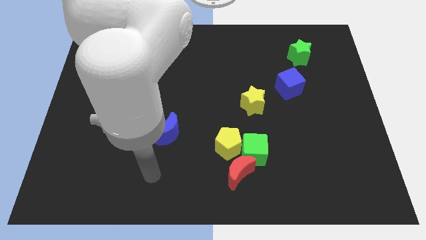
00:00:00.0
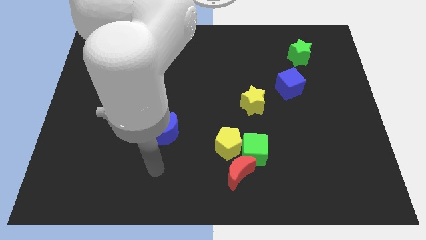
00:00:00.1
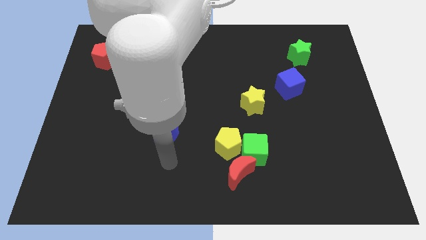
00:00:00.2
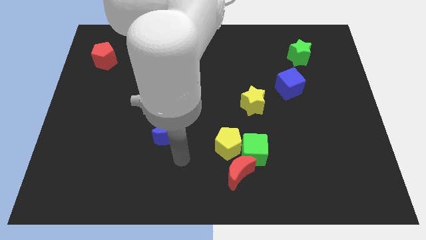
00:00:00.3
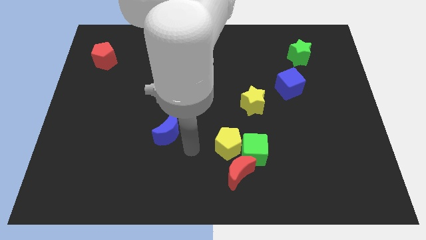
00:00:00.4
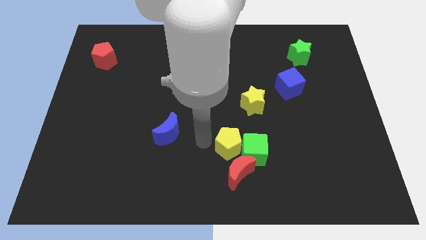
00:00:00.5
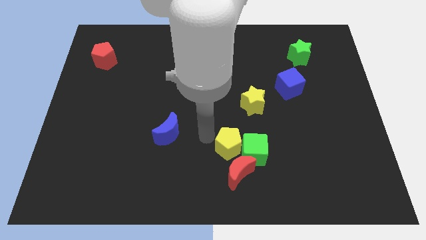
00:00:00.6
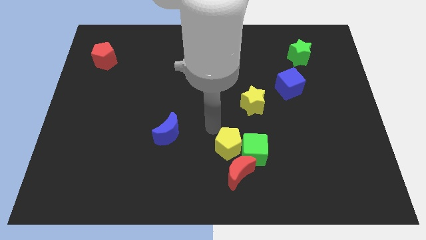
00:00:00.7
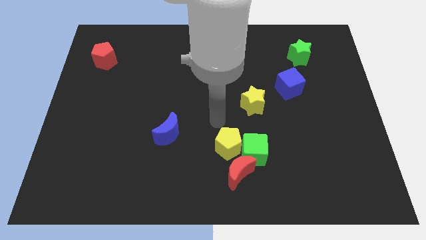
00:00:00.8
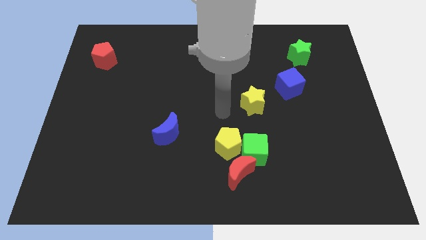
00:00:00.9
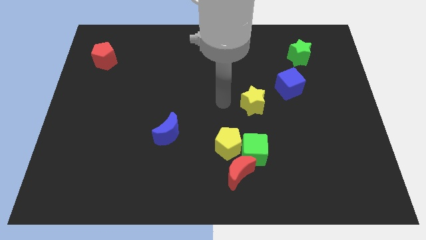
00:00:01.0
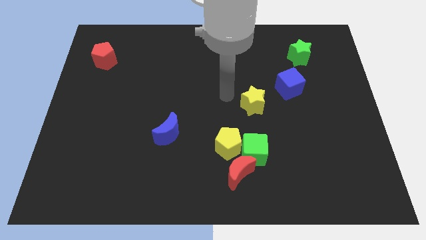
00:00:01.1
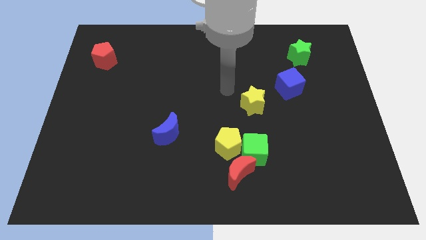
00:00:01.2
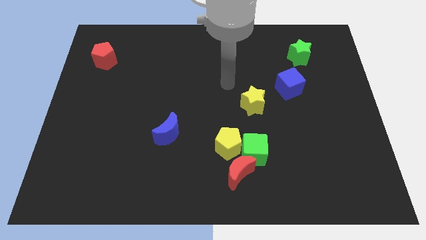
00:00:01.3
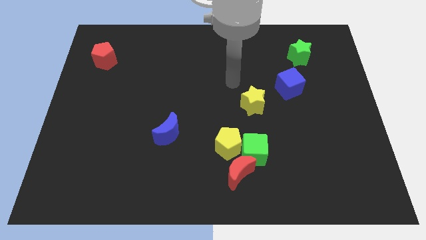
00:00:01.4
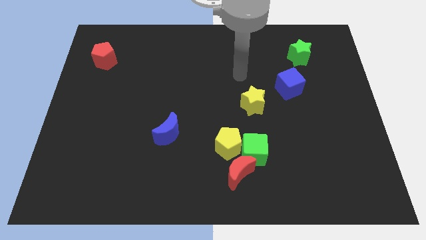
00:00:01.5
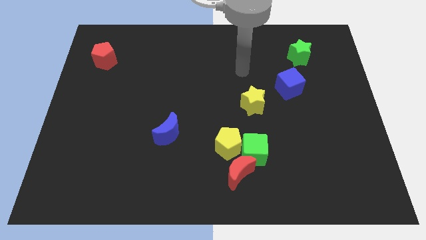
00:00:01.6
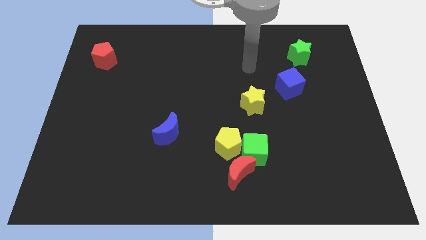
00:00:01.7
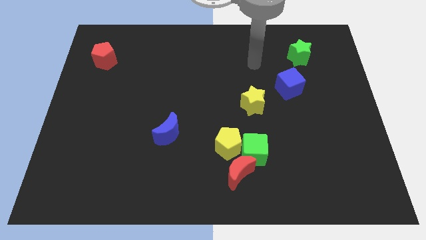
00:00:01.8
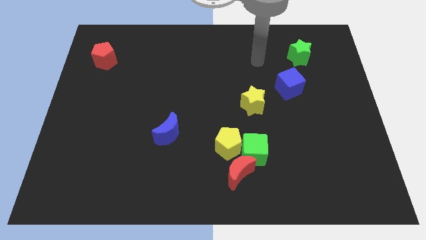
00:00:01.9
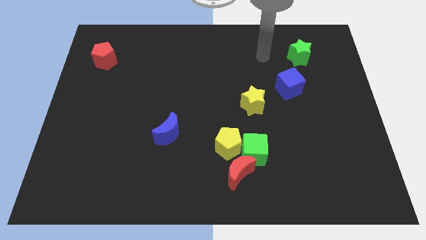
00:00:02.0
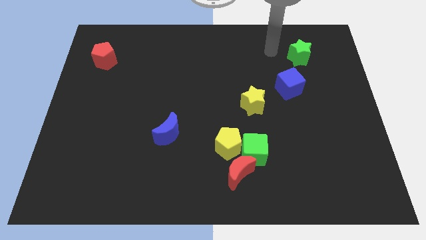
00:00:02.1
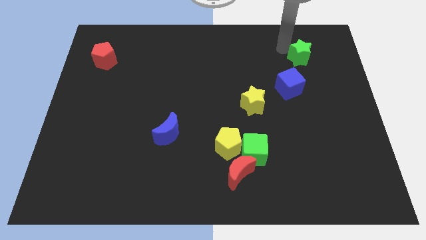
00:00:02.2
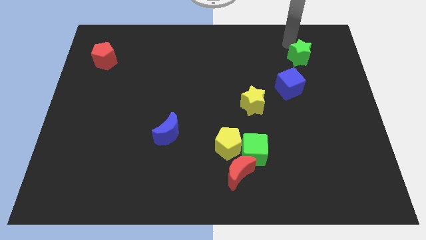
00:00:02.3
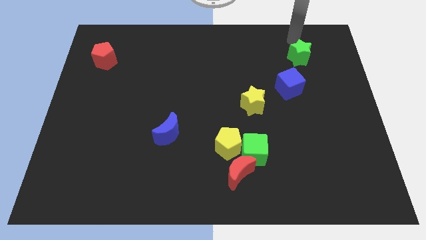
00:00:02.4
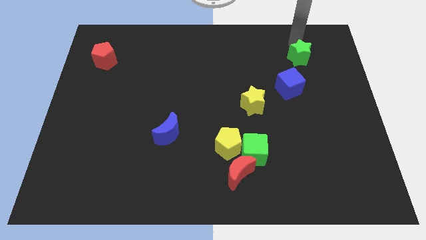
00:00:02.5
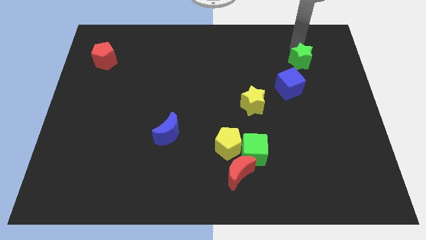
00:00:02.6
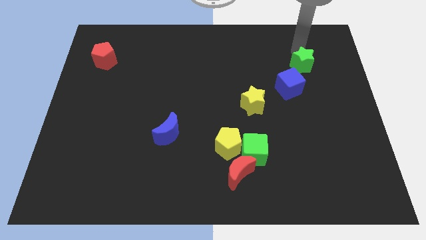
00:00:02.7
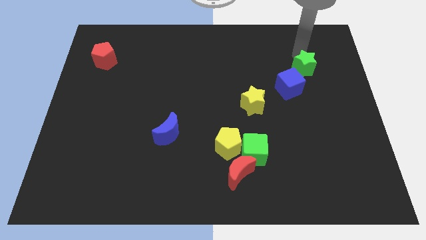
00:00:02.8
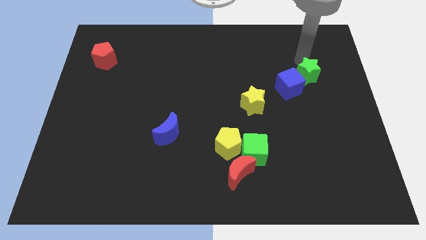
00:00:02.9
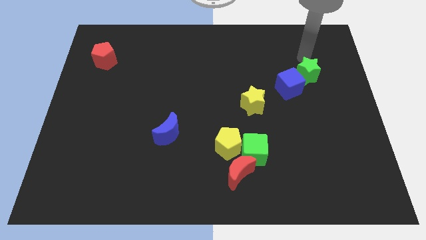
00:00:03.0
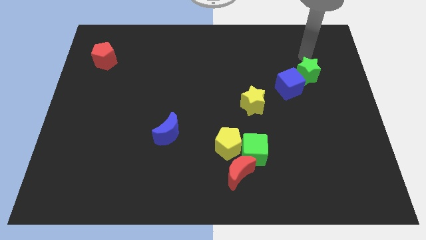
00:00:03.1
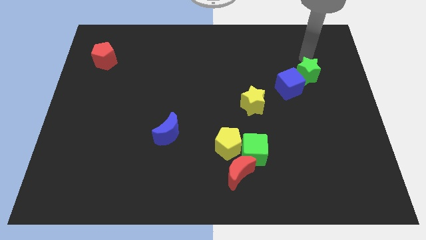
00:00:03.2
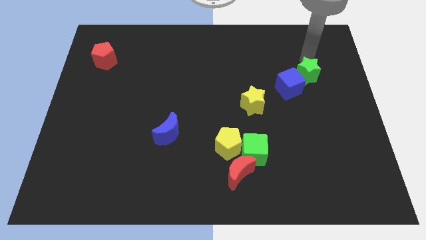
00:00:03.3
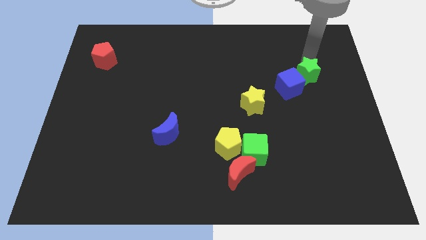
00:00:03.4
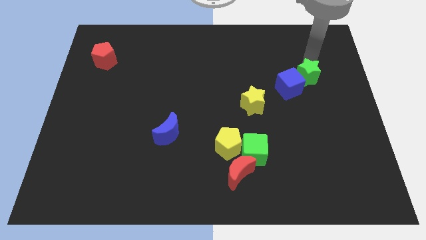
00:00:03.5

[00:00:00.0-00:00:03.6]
slide the green star down a little

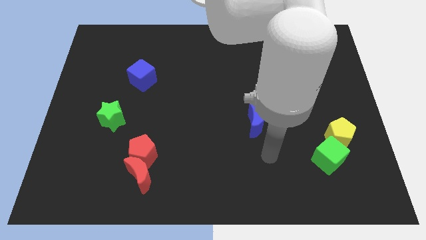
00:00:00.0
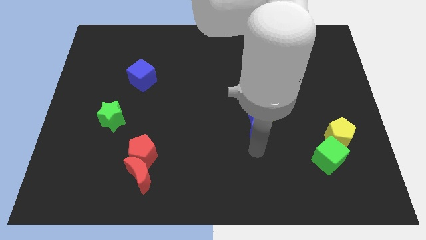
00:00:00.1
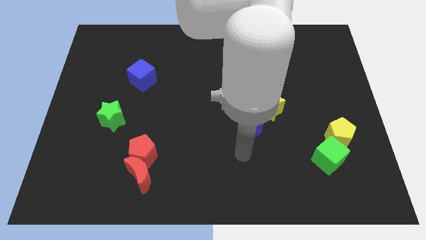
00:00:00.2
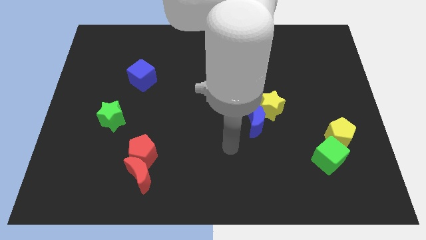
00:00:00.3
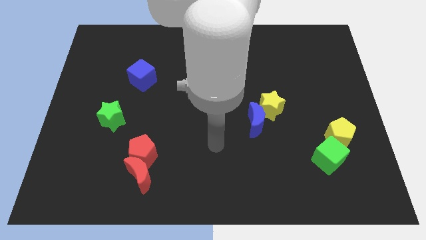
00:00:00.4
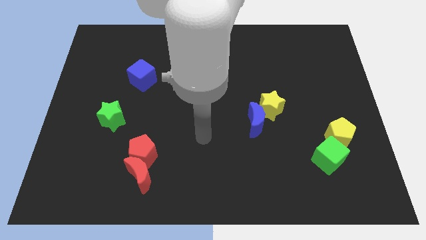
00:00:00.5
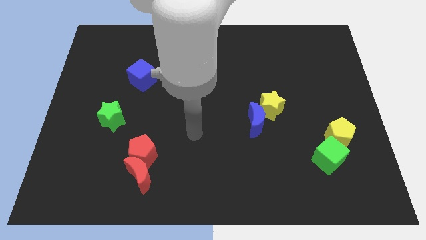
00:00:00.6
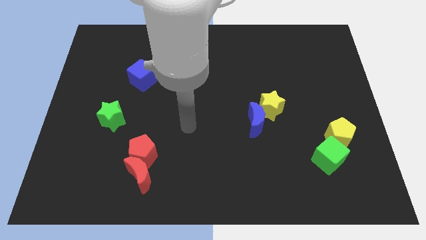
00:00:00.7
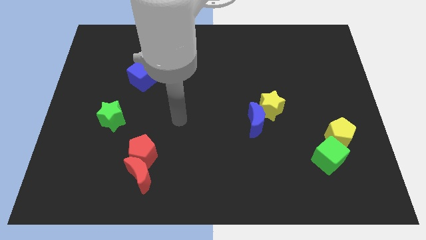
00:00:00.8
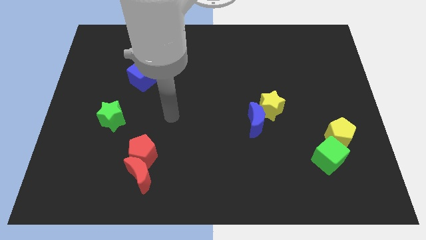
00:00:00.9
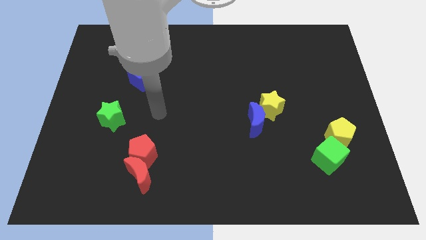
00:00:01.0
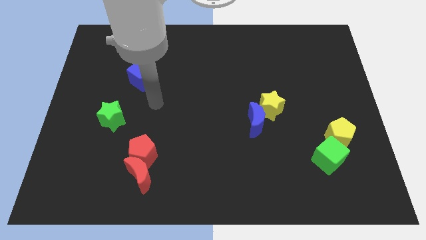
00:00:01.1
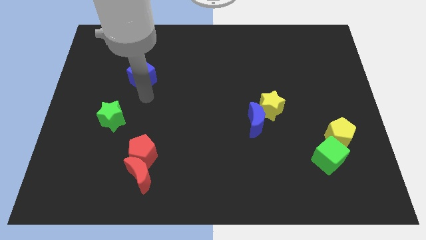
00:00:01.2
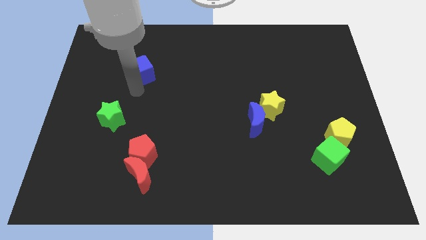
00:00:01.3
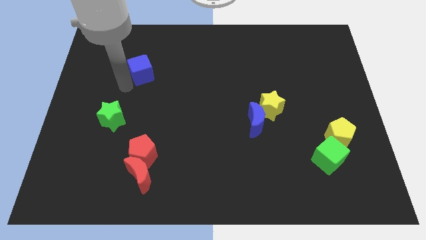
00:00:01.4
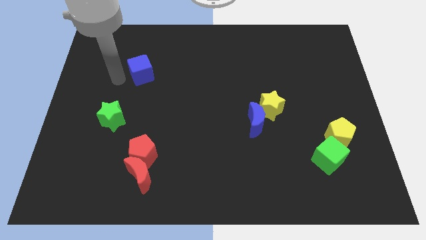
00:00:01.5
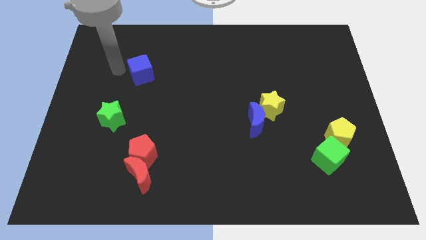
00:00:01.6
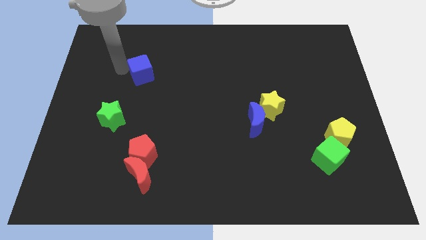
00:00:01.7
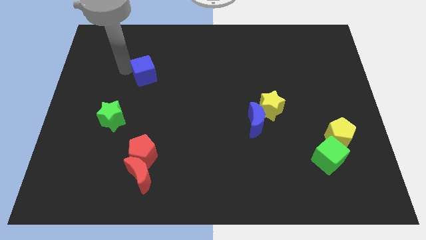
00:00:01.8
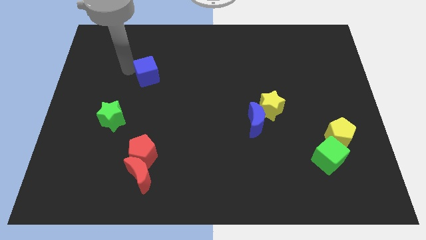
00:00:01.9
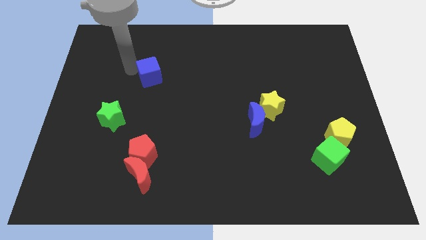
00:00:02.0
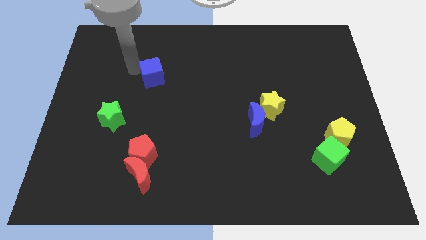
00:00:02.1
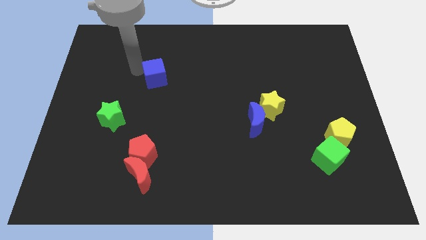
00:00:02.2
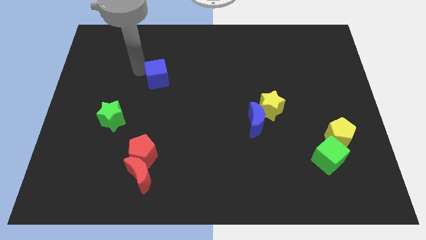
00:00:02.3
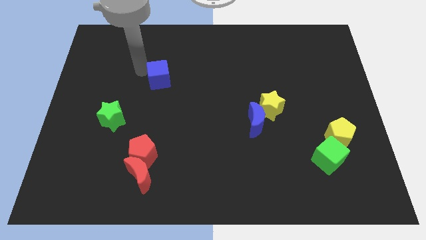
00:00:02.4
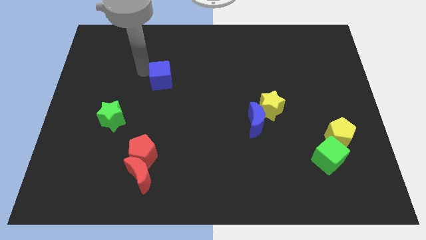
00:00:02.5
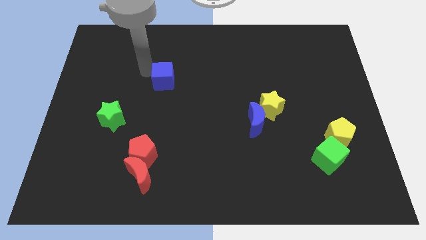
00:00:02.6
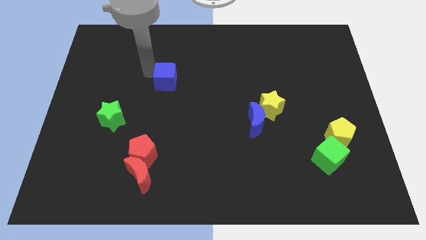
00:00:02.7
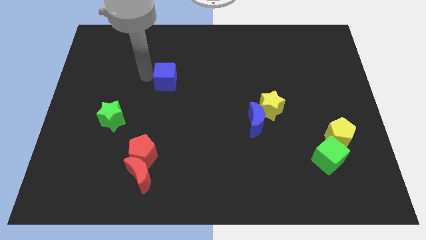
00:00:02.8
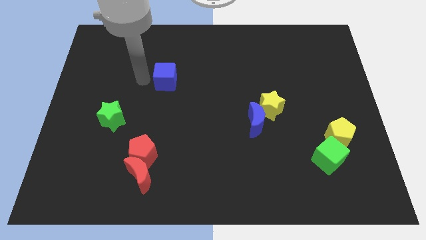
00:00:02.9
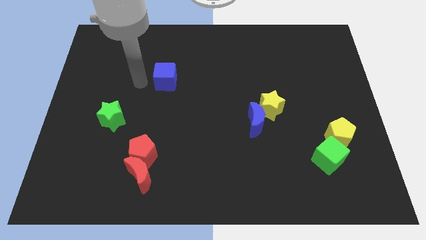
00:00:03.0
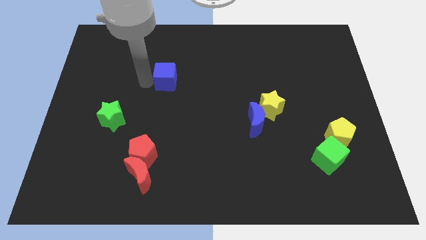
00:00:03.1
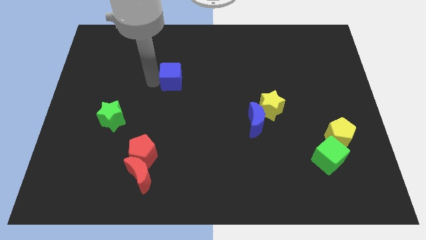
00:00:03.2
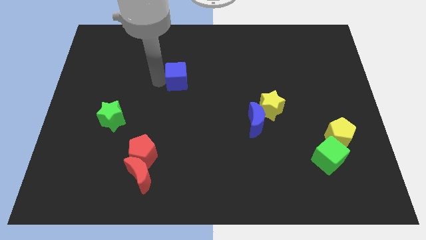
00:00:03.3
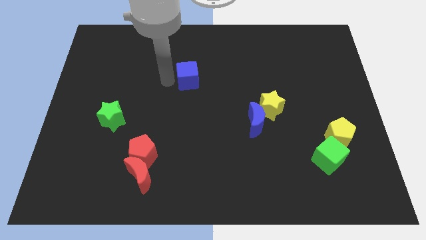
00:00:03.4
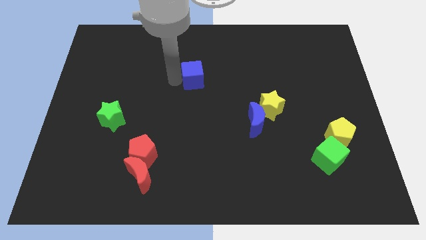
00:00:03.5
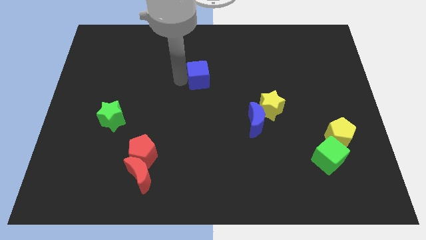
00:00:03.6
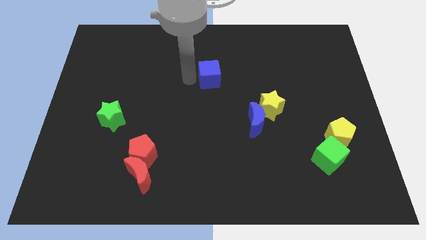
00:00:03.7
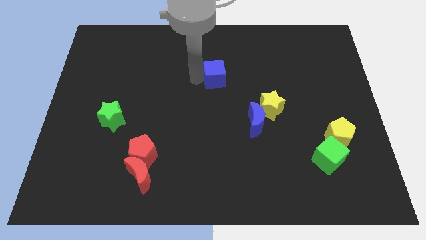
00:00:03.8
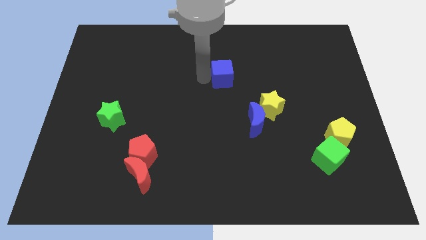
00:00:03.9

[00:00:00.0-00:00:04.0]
slide the blue cube to the right

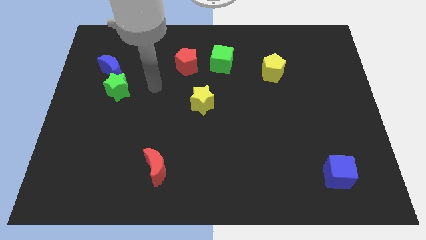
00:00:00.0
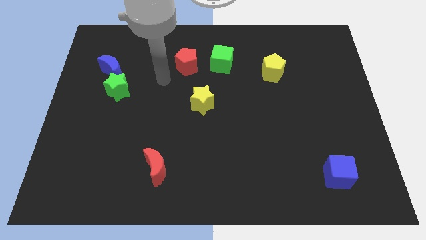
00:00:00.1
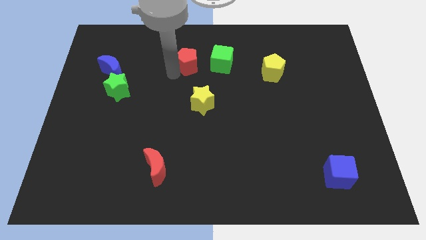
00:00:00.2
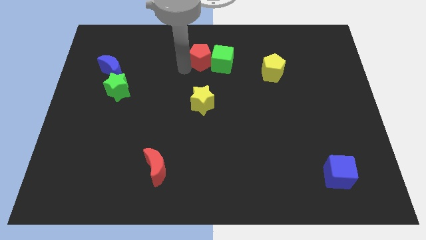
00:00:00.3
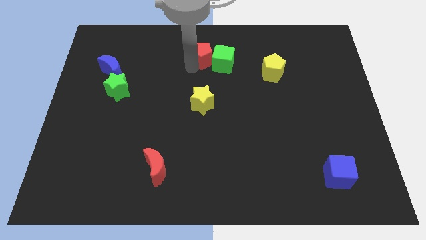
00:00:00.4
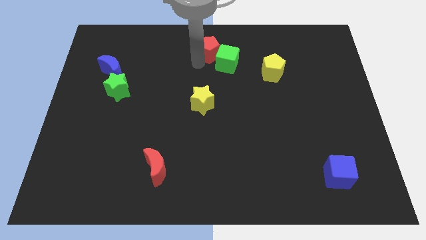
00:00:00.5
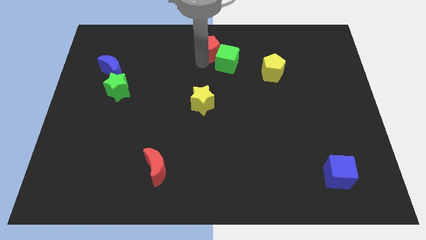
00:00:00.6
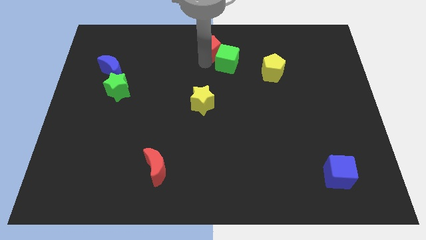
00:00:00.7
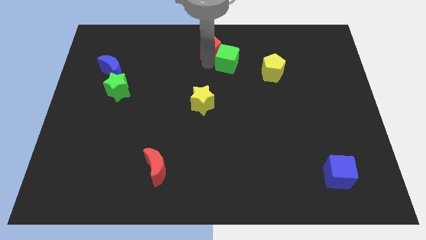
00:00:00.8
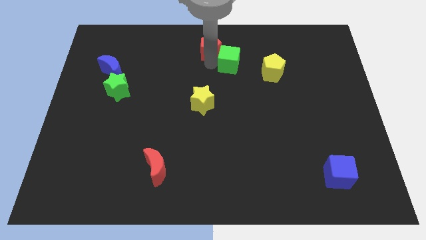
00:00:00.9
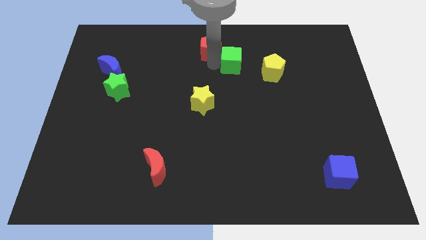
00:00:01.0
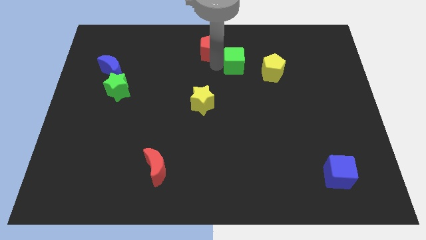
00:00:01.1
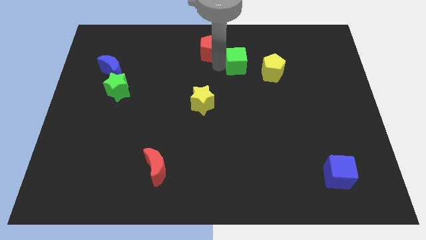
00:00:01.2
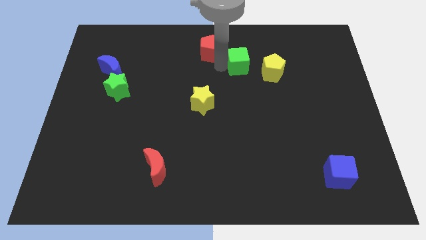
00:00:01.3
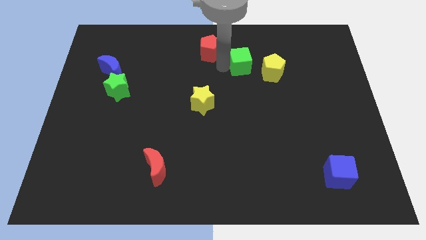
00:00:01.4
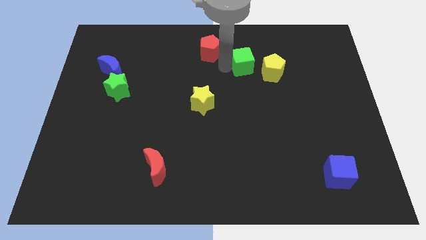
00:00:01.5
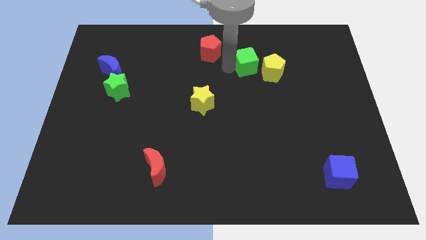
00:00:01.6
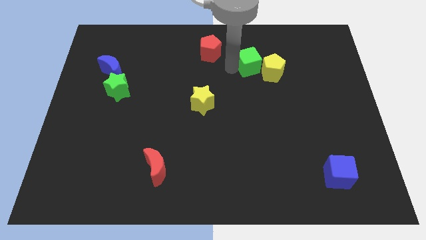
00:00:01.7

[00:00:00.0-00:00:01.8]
slide the green cube to the right a little
